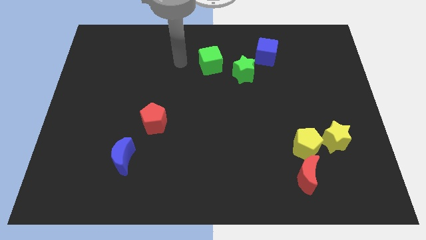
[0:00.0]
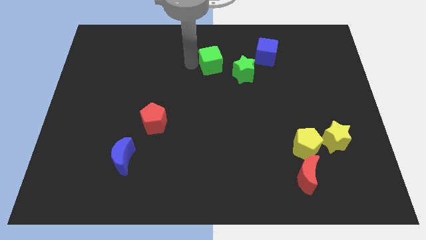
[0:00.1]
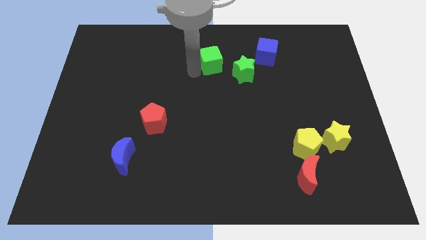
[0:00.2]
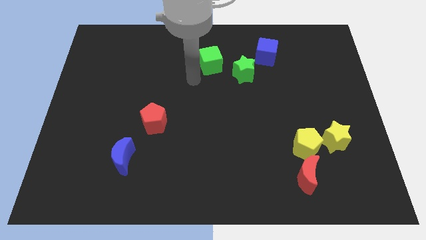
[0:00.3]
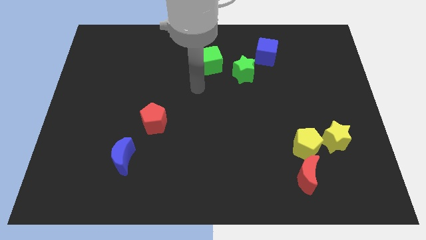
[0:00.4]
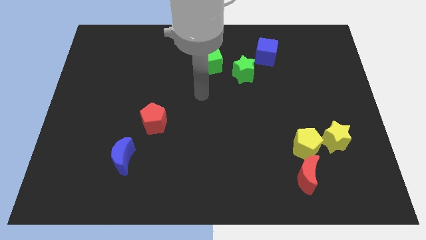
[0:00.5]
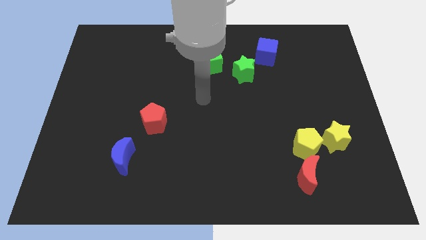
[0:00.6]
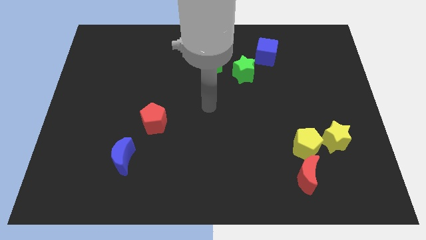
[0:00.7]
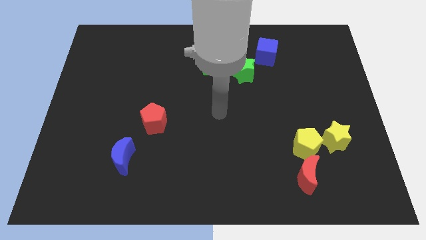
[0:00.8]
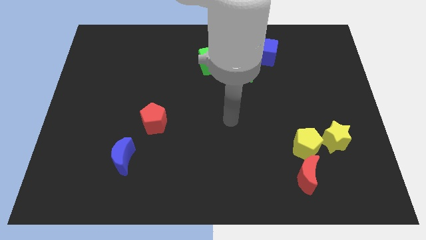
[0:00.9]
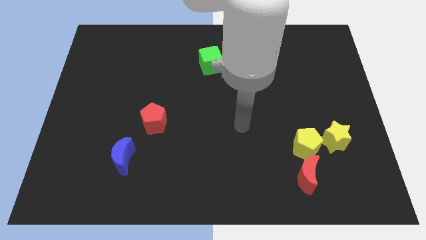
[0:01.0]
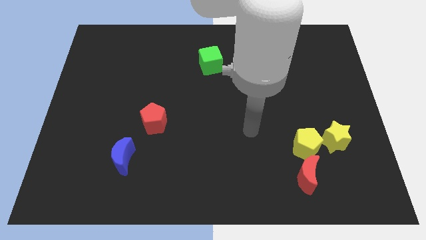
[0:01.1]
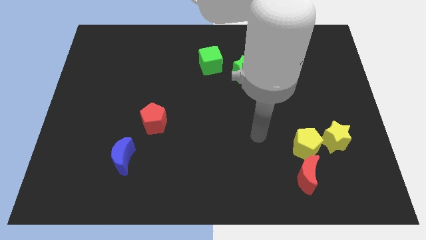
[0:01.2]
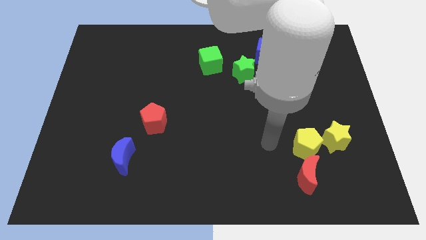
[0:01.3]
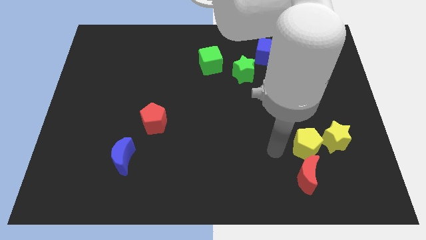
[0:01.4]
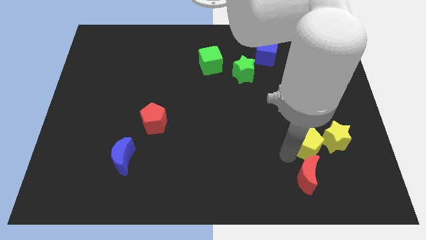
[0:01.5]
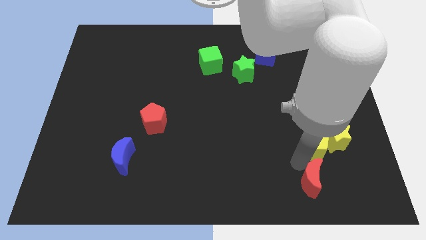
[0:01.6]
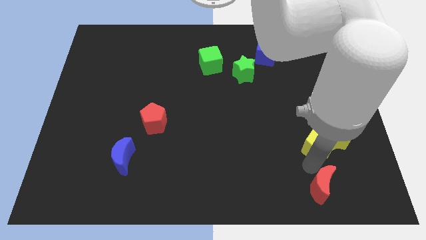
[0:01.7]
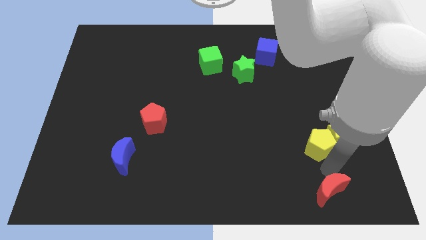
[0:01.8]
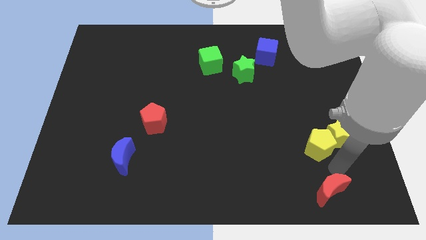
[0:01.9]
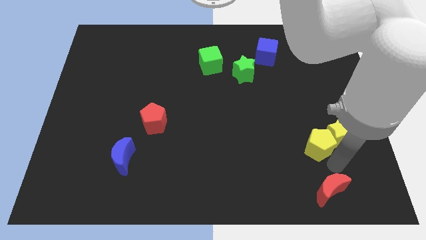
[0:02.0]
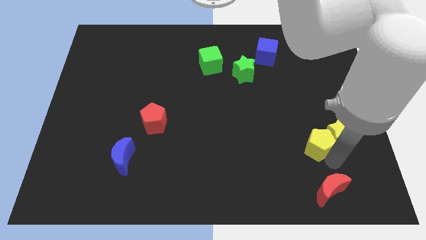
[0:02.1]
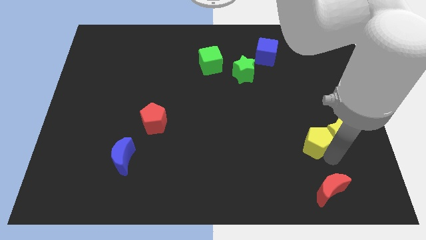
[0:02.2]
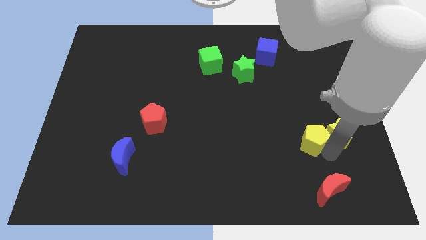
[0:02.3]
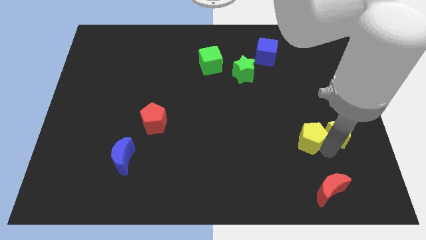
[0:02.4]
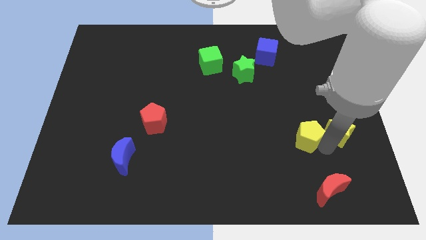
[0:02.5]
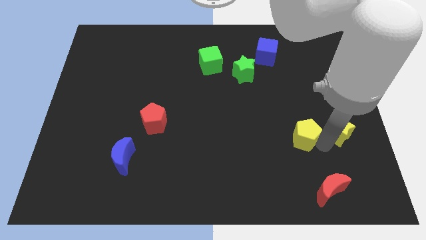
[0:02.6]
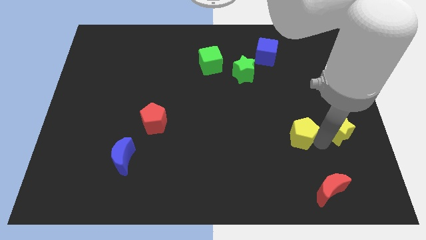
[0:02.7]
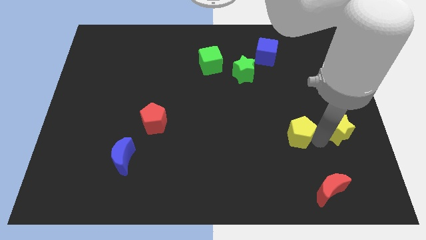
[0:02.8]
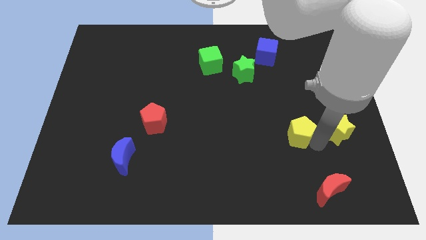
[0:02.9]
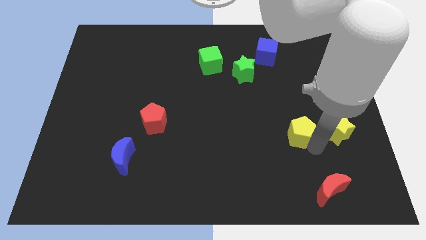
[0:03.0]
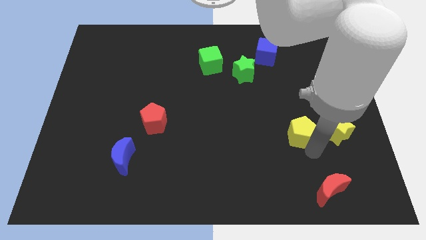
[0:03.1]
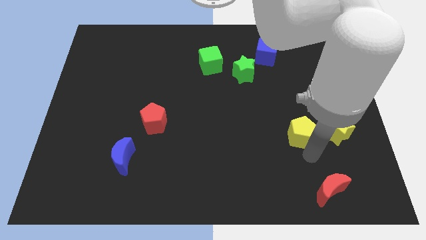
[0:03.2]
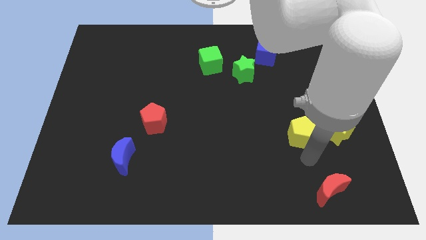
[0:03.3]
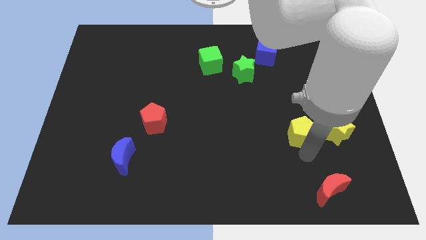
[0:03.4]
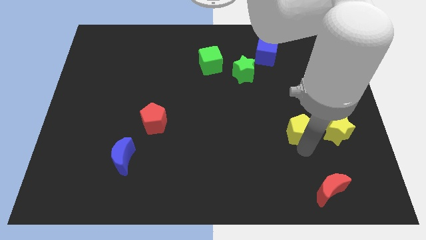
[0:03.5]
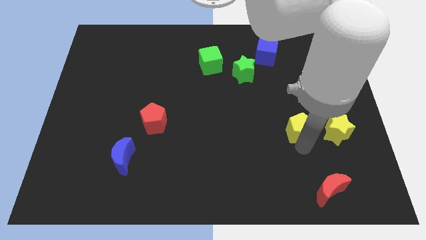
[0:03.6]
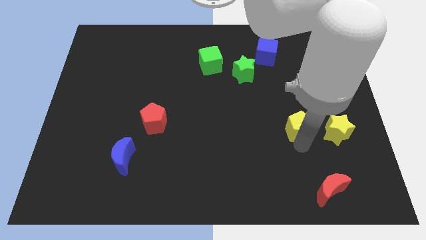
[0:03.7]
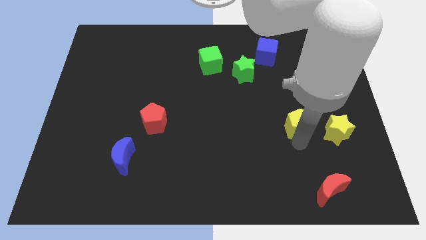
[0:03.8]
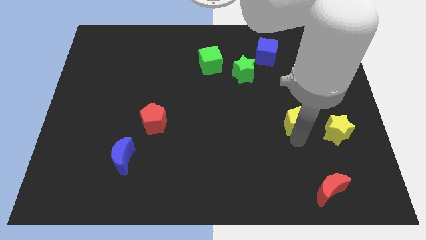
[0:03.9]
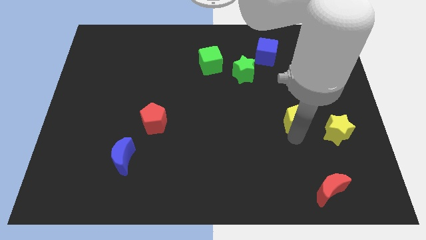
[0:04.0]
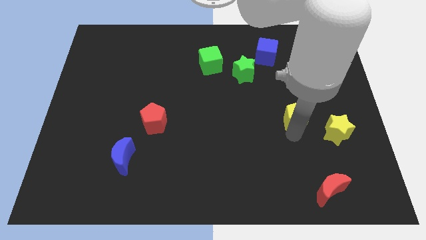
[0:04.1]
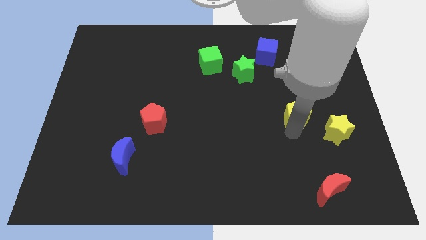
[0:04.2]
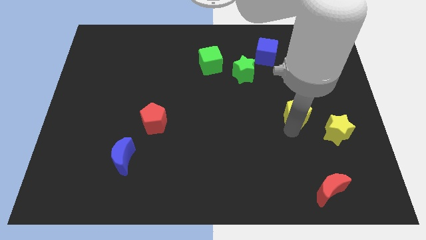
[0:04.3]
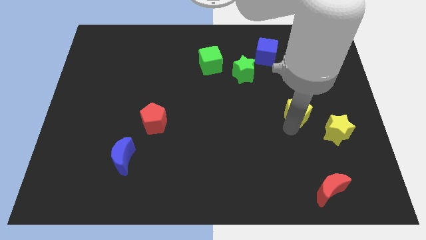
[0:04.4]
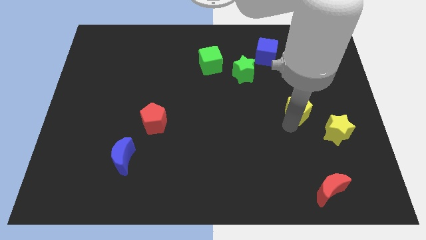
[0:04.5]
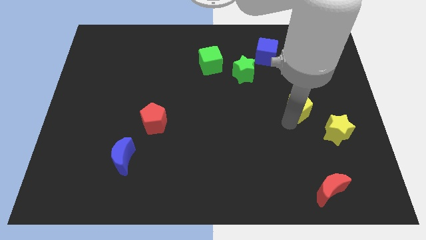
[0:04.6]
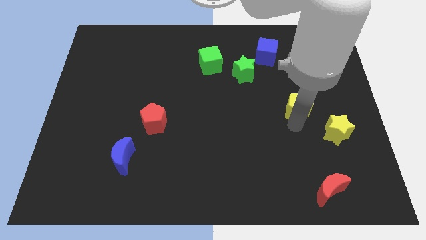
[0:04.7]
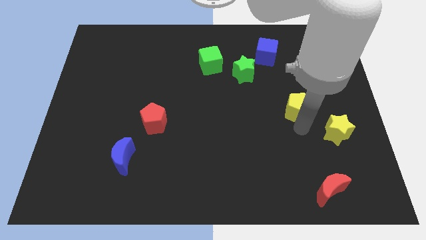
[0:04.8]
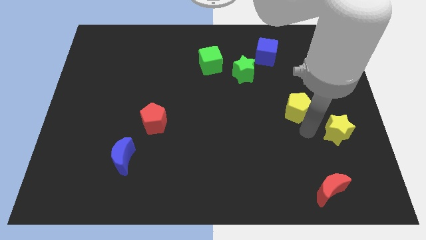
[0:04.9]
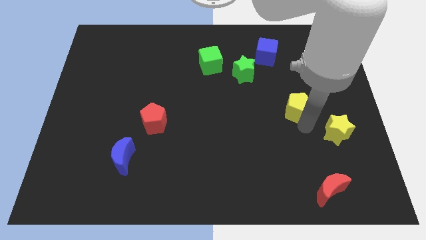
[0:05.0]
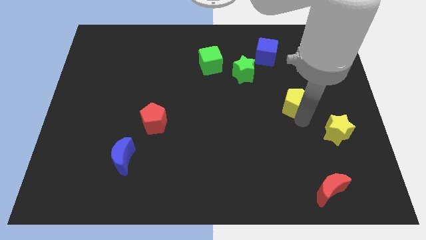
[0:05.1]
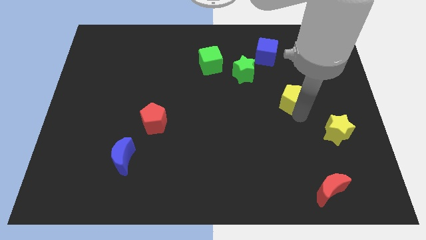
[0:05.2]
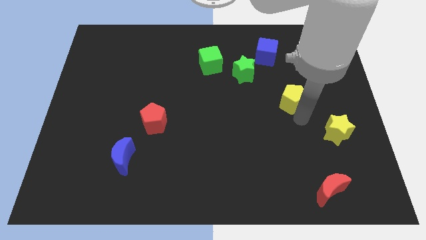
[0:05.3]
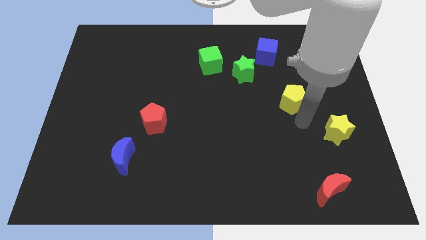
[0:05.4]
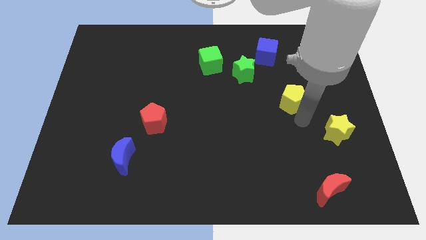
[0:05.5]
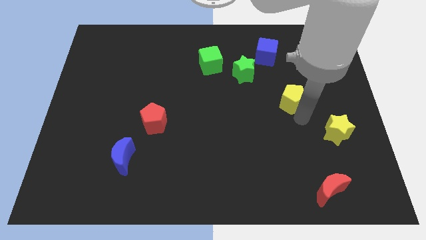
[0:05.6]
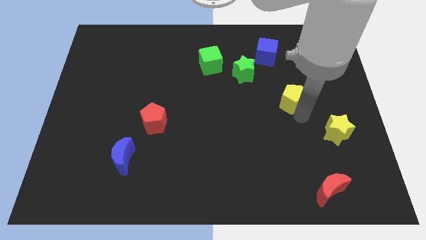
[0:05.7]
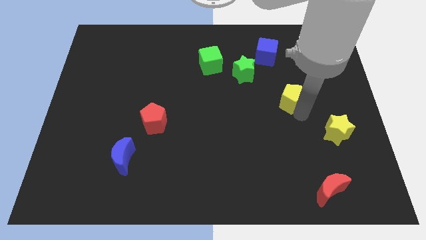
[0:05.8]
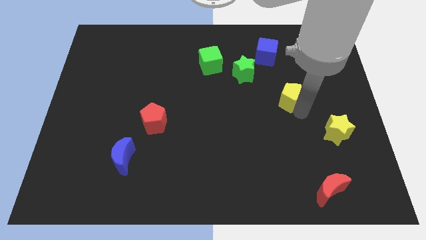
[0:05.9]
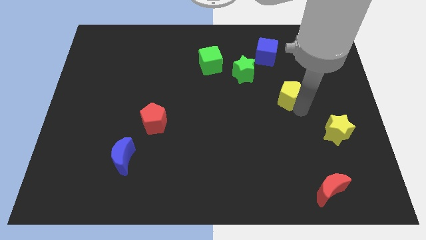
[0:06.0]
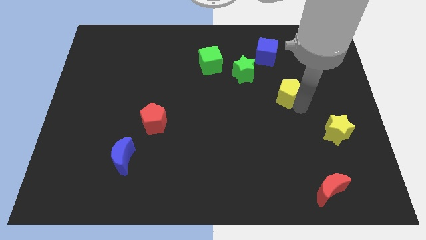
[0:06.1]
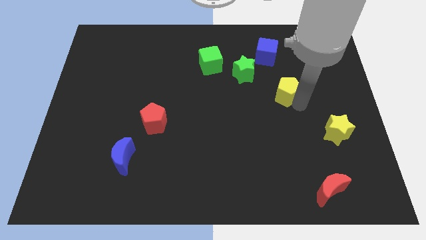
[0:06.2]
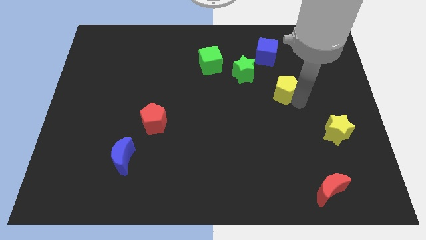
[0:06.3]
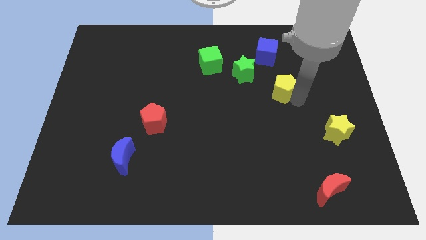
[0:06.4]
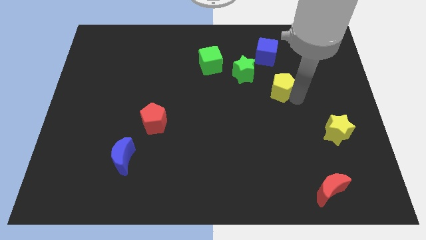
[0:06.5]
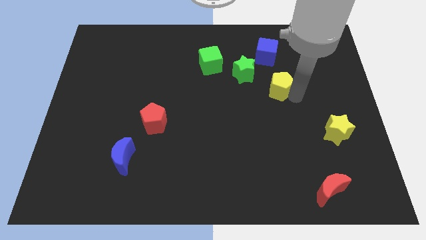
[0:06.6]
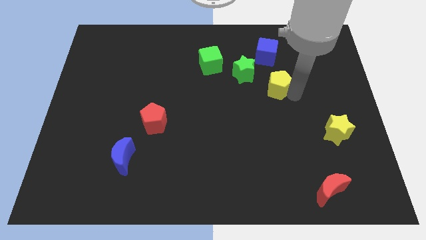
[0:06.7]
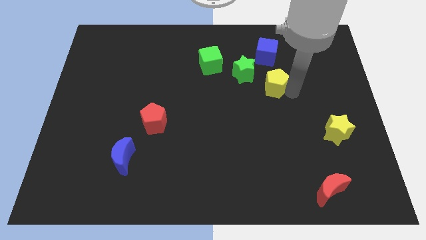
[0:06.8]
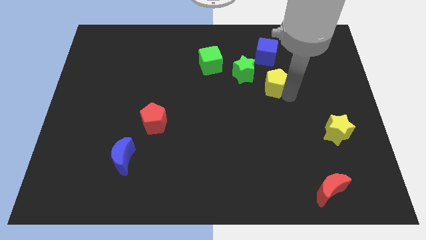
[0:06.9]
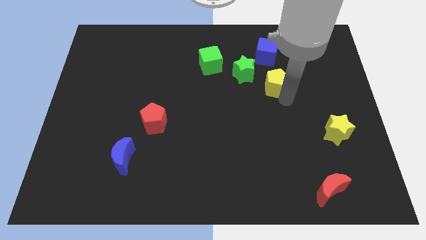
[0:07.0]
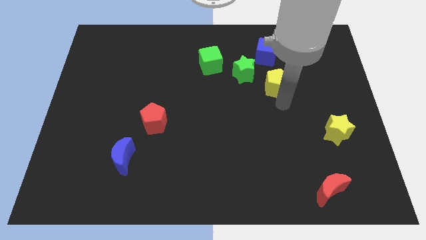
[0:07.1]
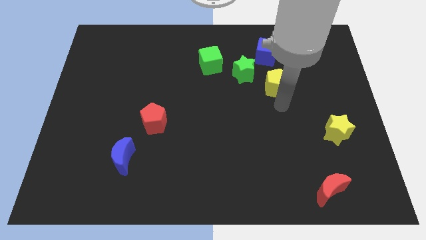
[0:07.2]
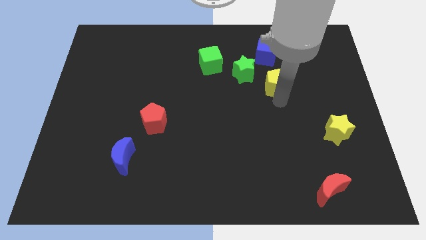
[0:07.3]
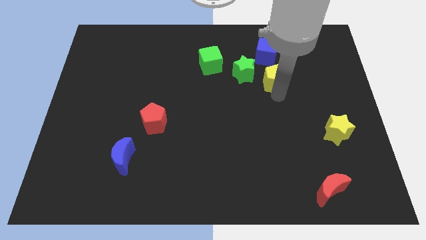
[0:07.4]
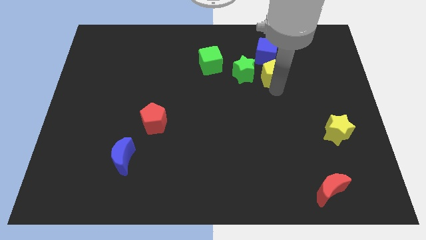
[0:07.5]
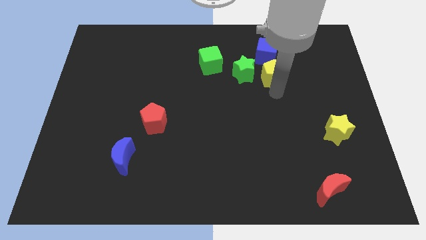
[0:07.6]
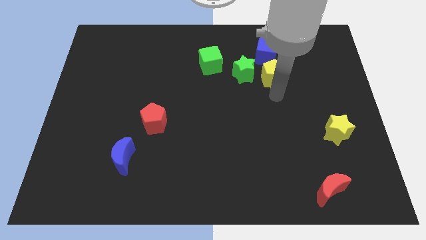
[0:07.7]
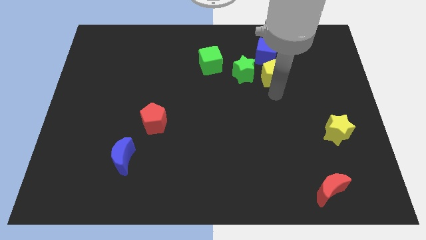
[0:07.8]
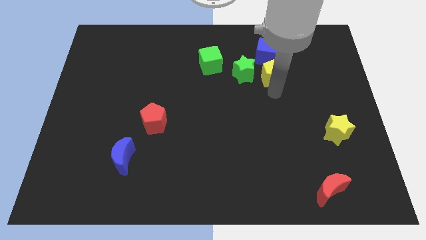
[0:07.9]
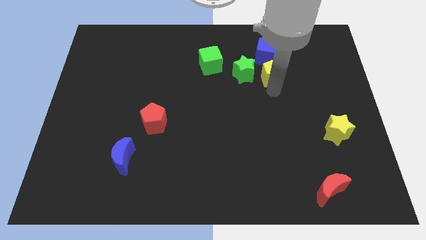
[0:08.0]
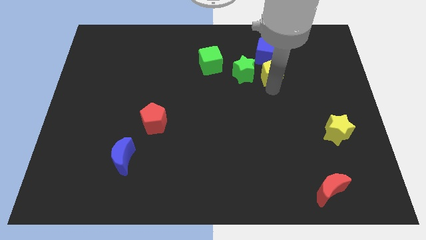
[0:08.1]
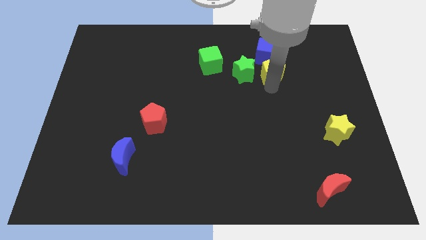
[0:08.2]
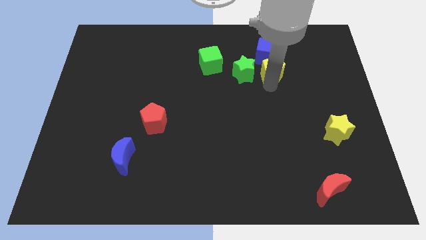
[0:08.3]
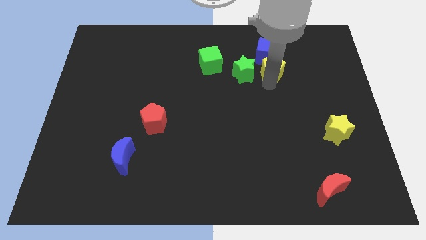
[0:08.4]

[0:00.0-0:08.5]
put the yellow pentagon close to the blue cube
